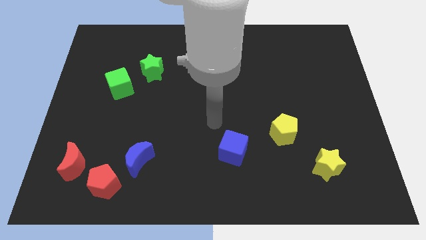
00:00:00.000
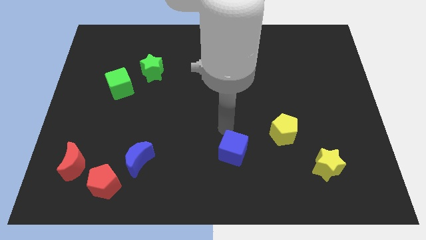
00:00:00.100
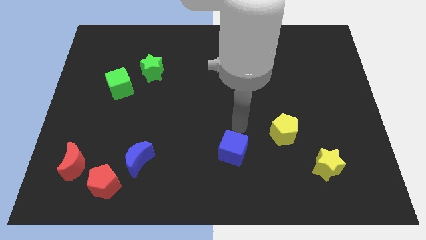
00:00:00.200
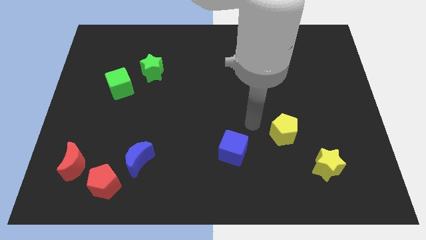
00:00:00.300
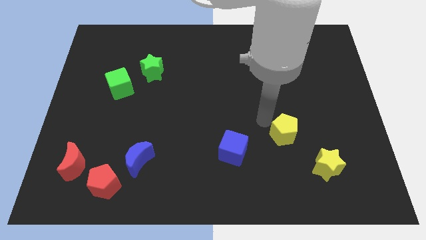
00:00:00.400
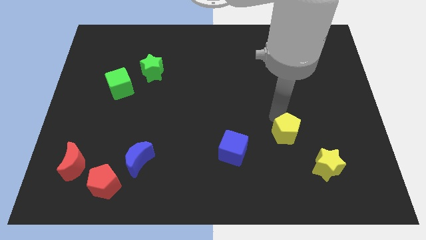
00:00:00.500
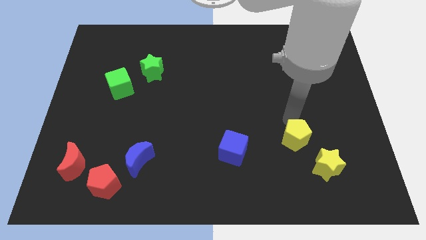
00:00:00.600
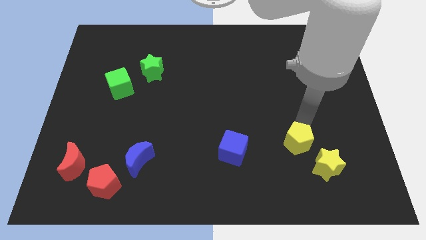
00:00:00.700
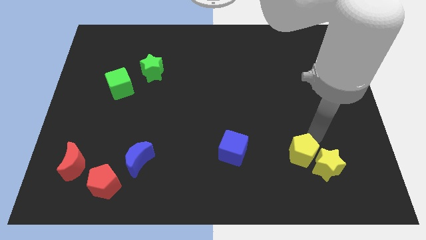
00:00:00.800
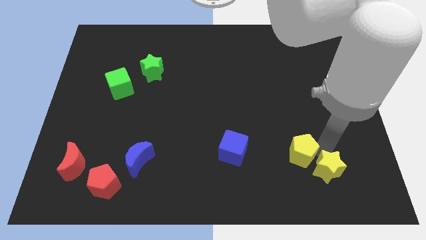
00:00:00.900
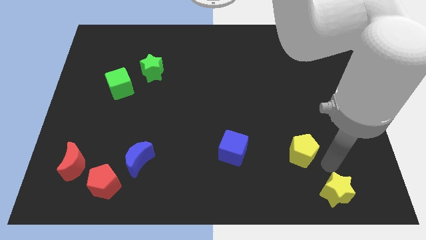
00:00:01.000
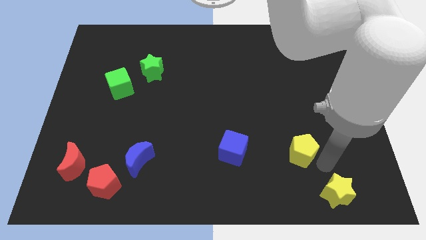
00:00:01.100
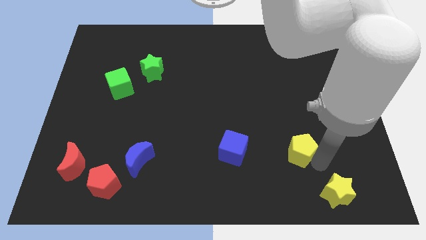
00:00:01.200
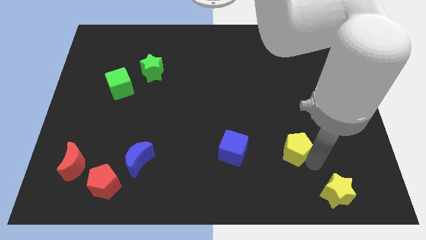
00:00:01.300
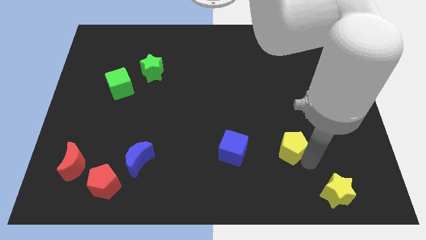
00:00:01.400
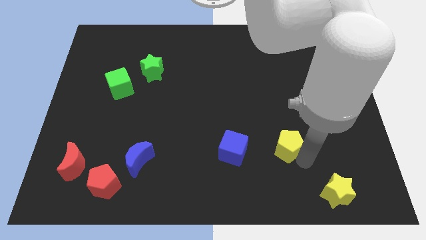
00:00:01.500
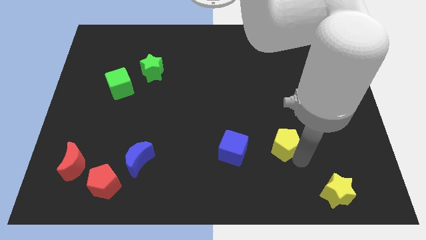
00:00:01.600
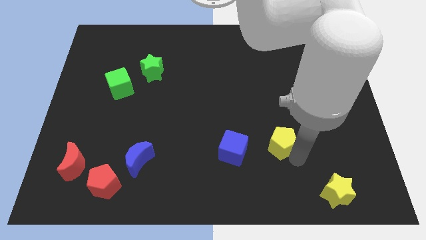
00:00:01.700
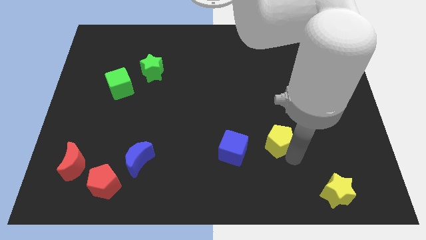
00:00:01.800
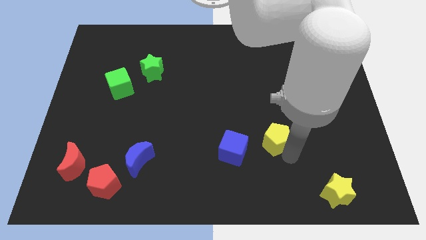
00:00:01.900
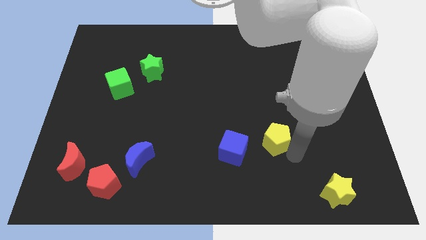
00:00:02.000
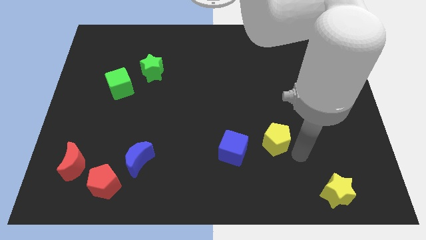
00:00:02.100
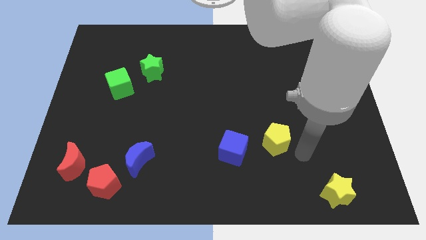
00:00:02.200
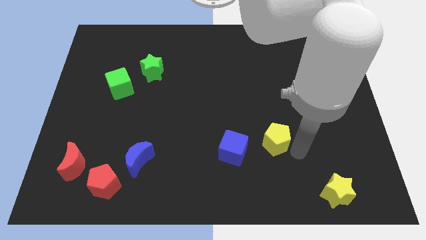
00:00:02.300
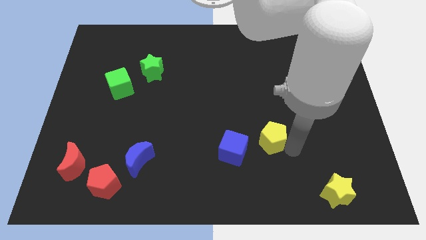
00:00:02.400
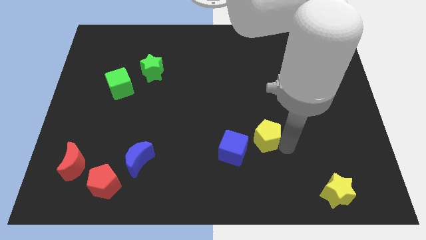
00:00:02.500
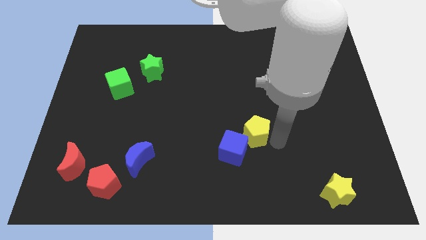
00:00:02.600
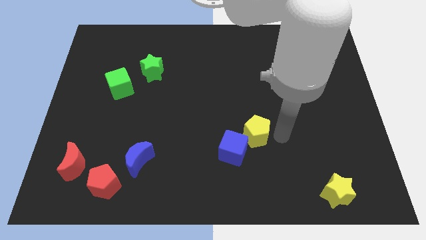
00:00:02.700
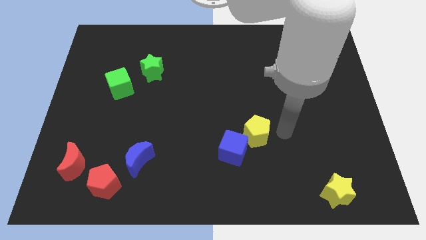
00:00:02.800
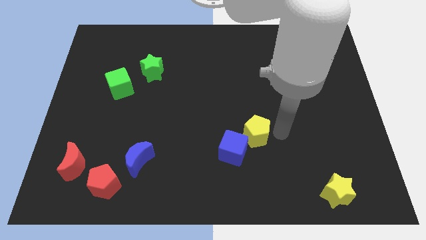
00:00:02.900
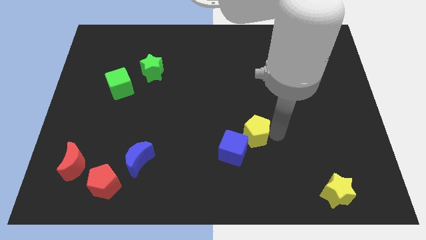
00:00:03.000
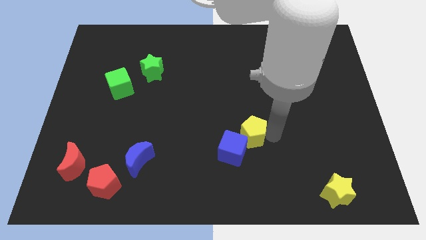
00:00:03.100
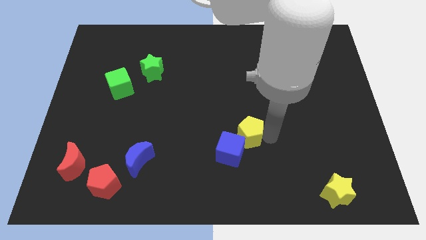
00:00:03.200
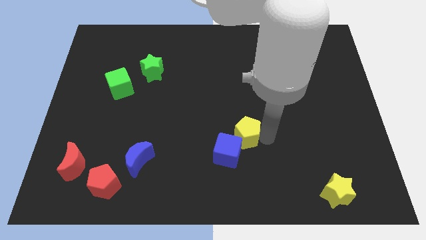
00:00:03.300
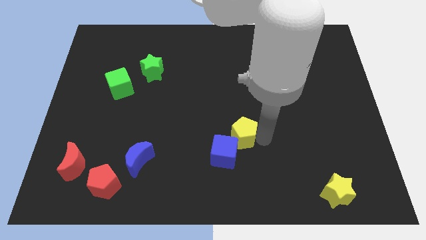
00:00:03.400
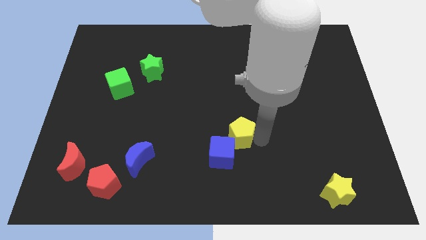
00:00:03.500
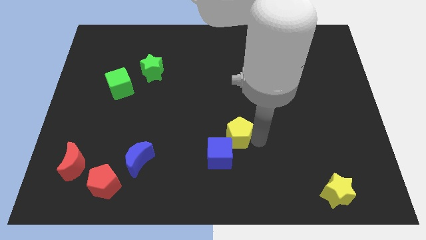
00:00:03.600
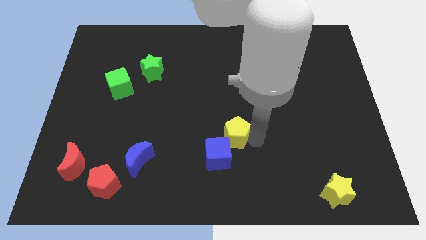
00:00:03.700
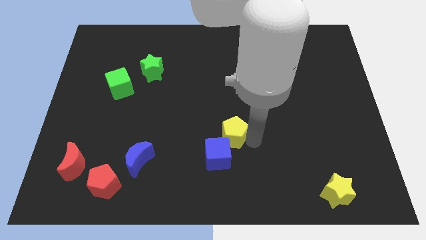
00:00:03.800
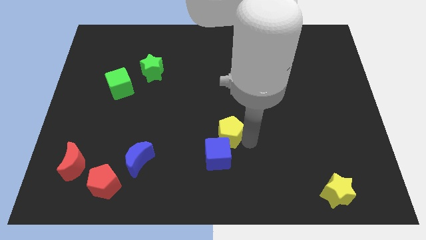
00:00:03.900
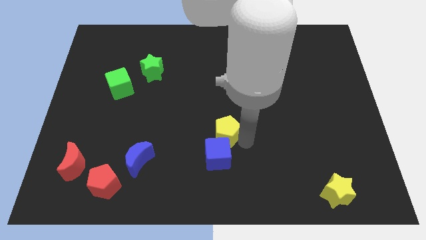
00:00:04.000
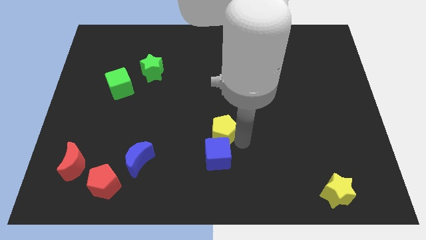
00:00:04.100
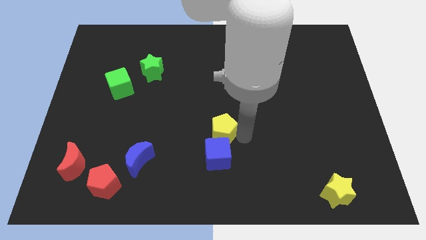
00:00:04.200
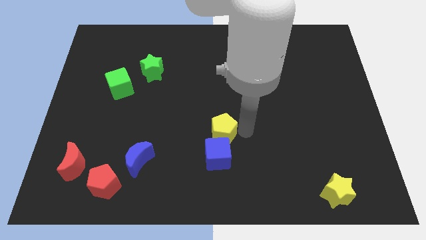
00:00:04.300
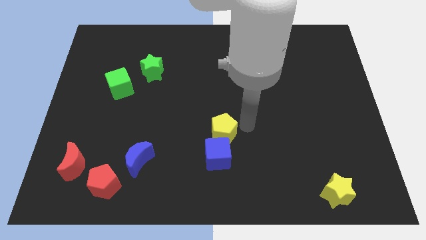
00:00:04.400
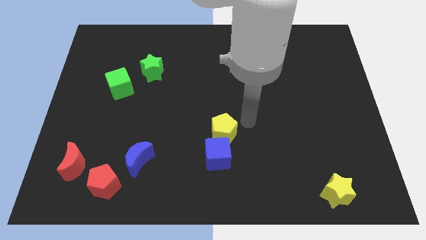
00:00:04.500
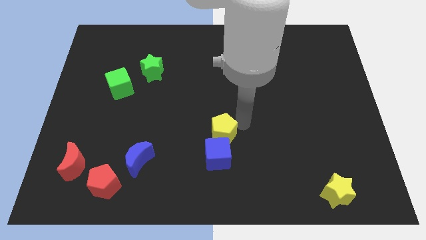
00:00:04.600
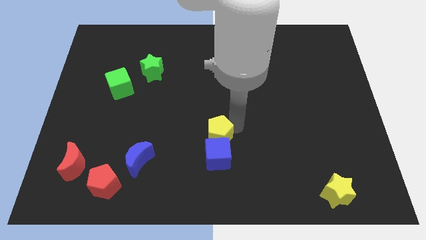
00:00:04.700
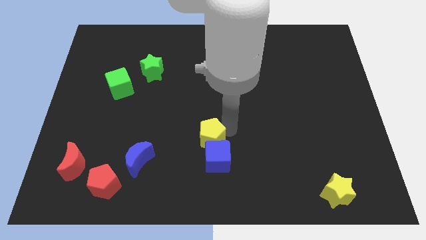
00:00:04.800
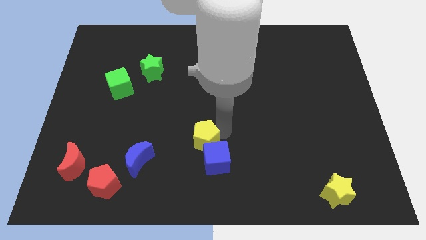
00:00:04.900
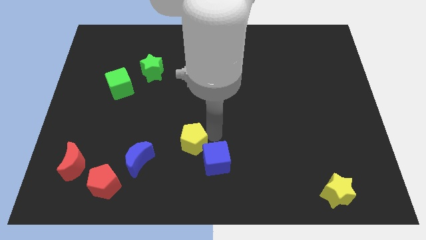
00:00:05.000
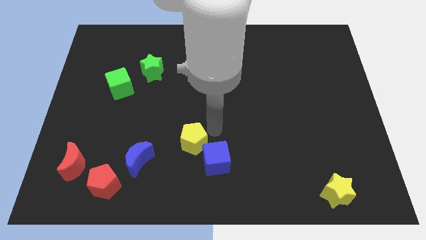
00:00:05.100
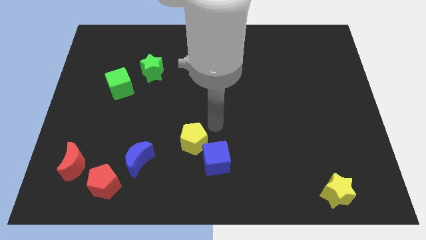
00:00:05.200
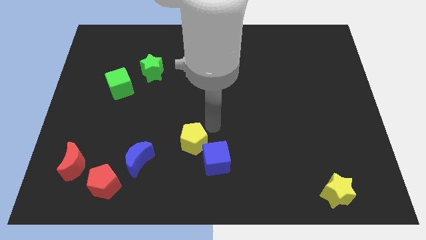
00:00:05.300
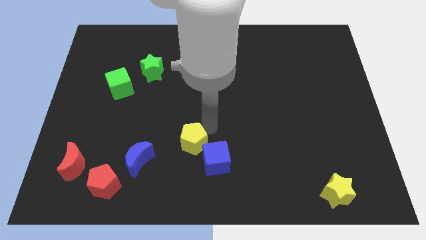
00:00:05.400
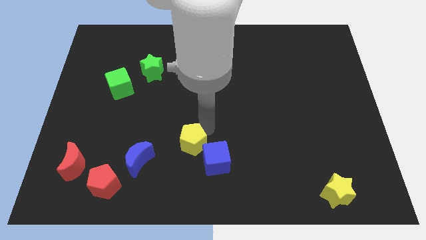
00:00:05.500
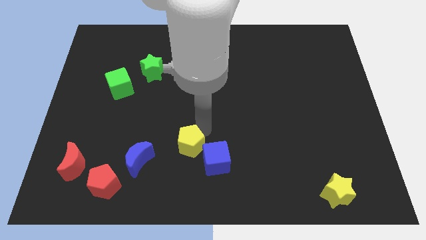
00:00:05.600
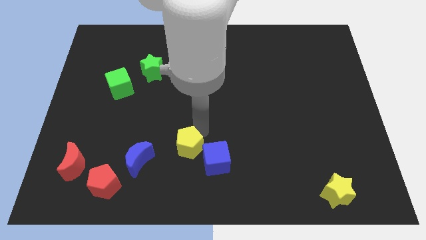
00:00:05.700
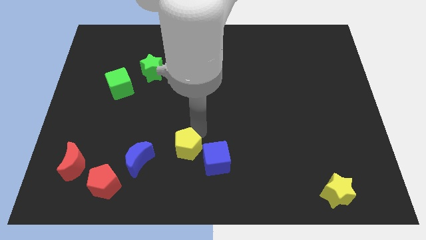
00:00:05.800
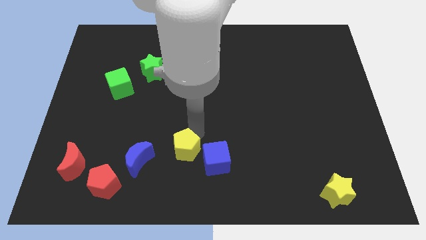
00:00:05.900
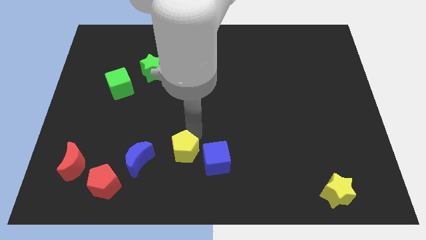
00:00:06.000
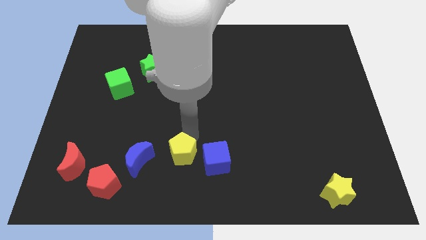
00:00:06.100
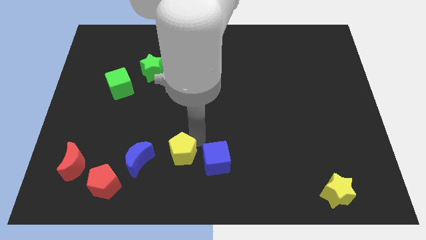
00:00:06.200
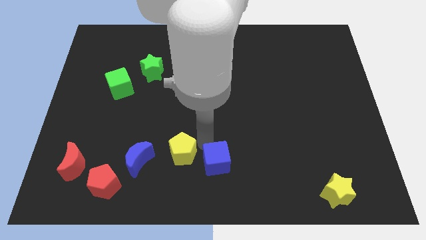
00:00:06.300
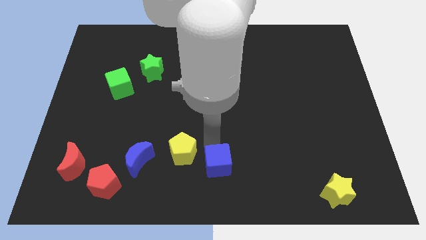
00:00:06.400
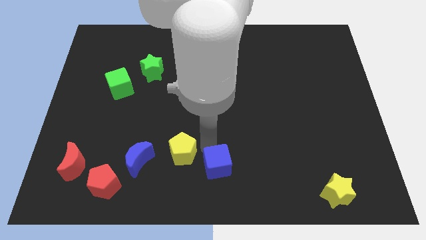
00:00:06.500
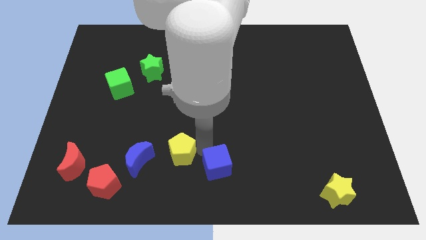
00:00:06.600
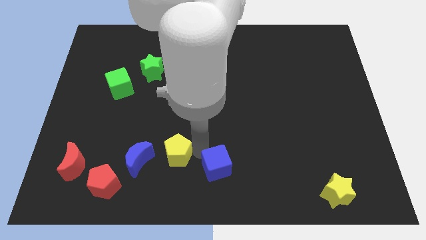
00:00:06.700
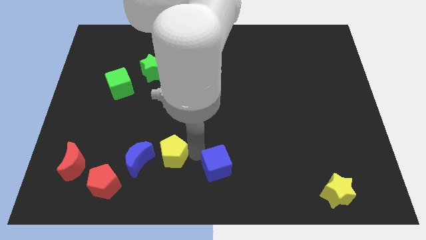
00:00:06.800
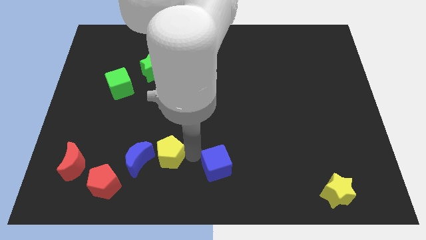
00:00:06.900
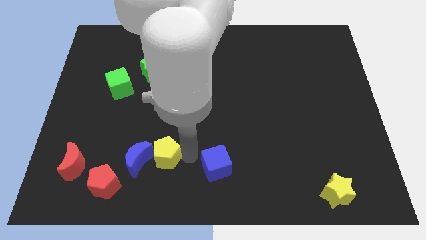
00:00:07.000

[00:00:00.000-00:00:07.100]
push the yellow pentagon towards the blue moon

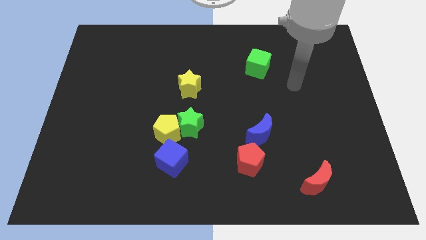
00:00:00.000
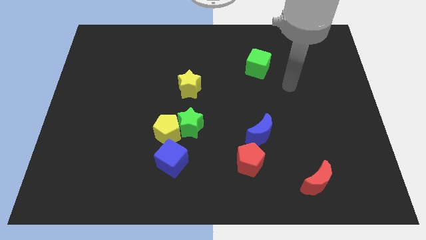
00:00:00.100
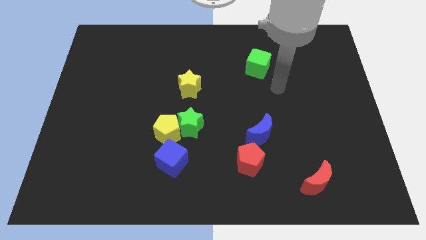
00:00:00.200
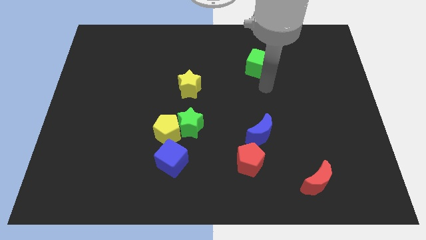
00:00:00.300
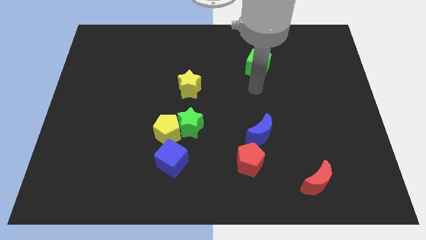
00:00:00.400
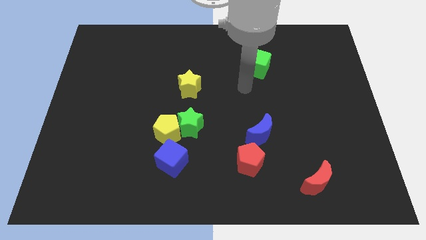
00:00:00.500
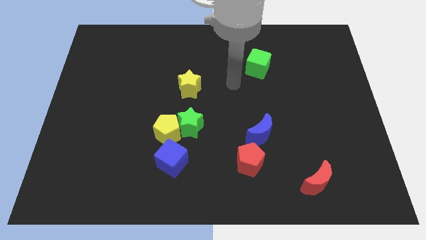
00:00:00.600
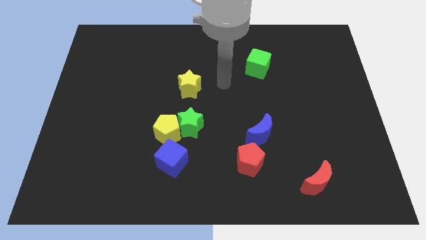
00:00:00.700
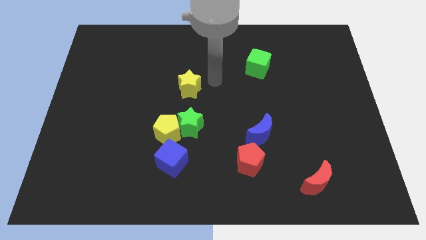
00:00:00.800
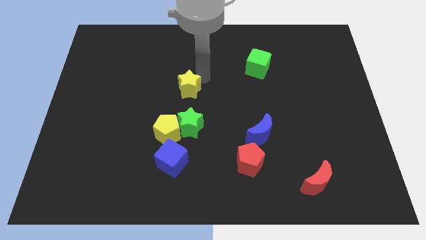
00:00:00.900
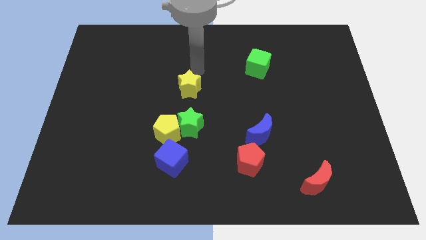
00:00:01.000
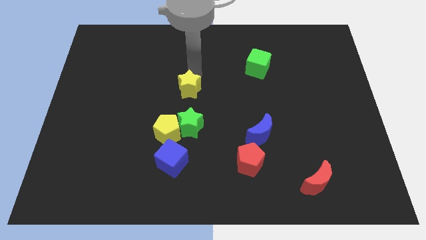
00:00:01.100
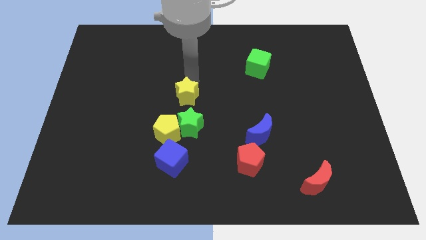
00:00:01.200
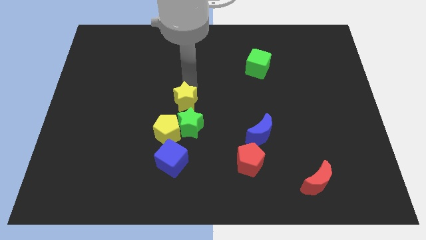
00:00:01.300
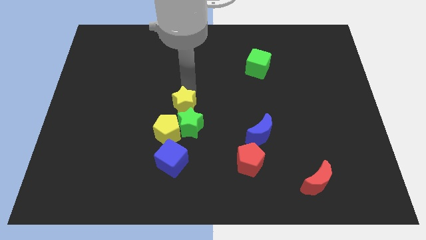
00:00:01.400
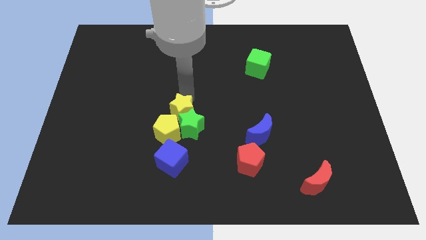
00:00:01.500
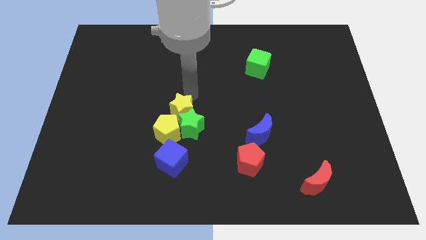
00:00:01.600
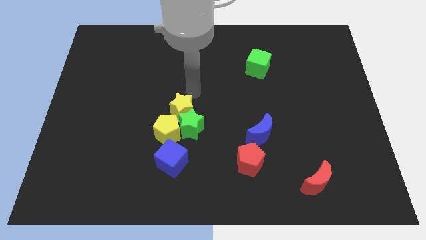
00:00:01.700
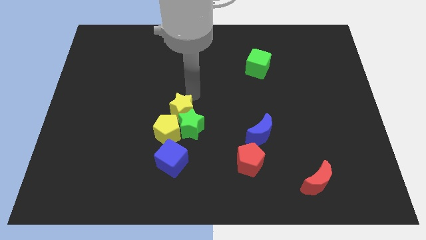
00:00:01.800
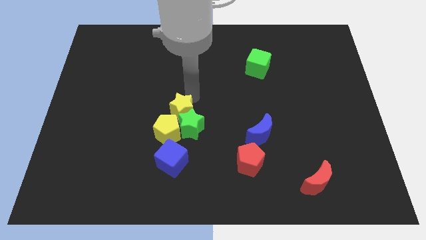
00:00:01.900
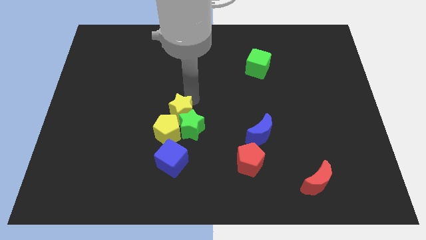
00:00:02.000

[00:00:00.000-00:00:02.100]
push the yellow star towards the yellow pentagon
